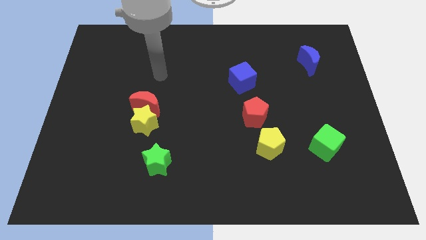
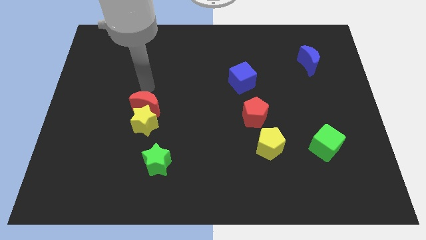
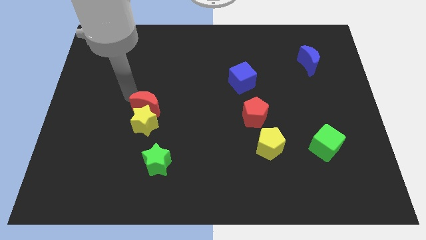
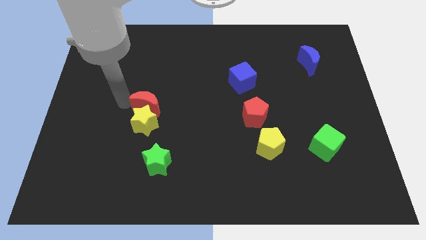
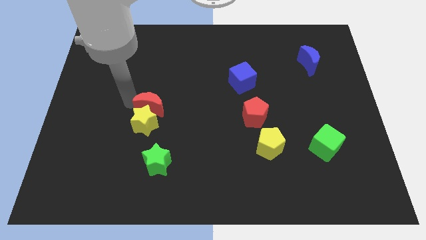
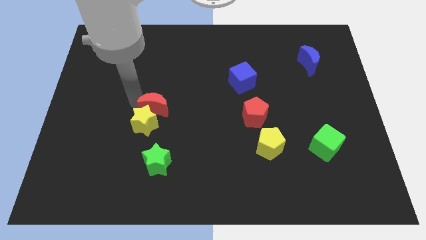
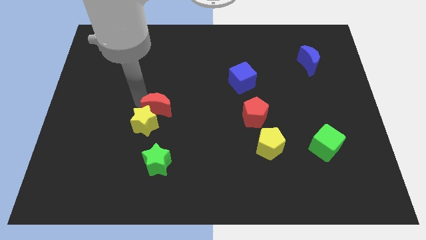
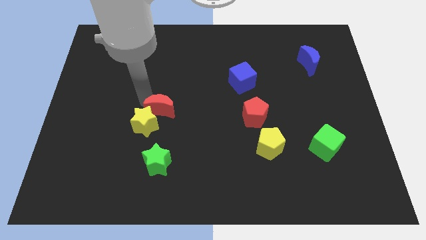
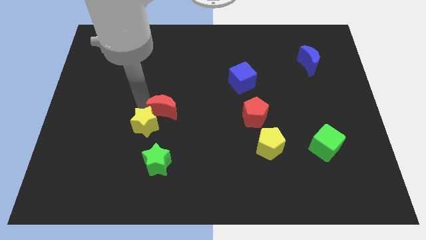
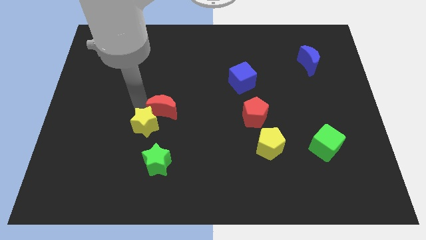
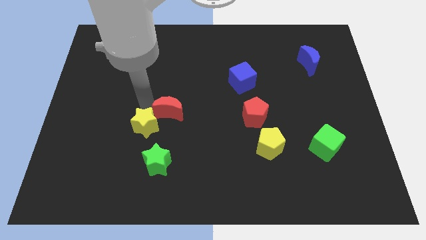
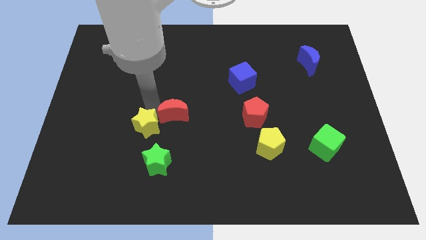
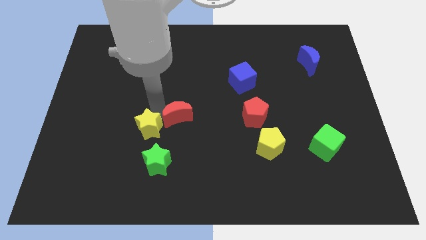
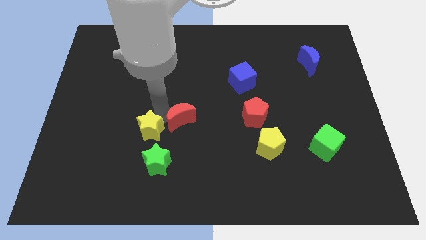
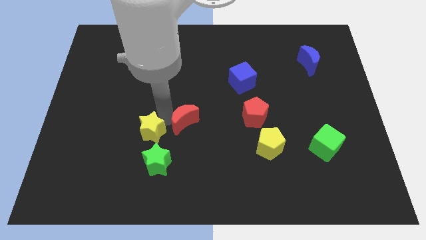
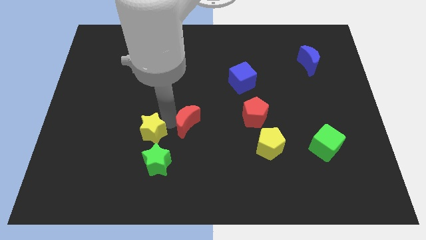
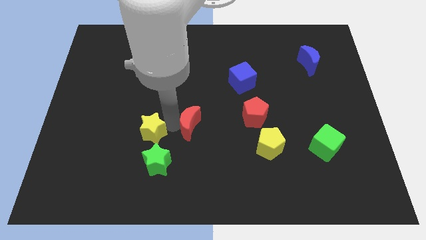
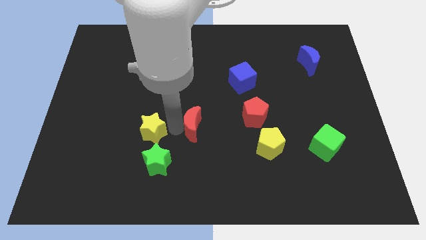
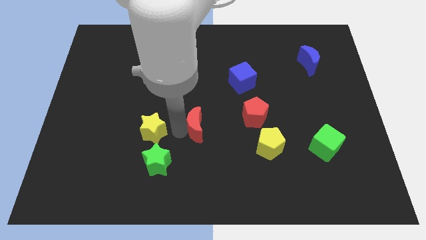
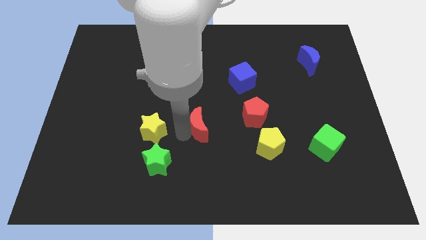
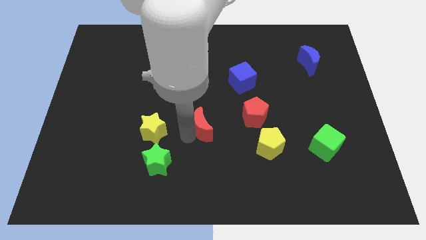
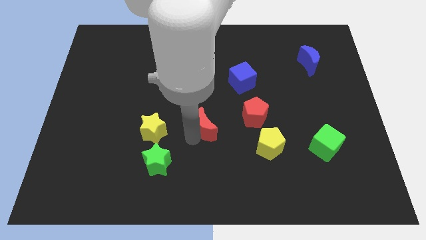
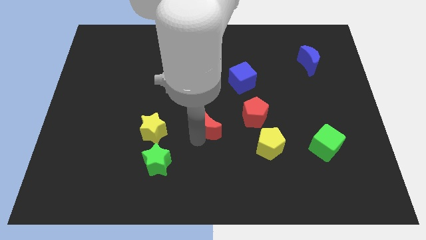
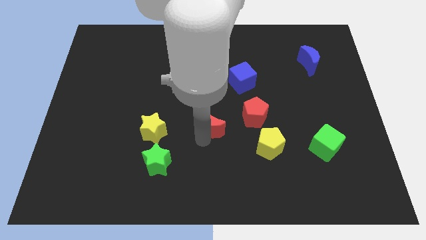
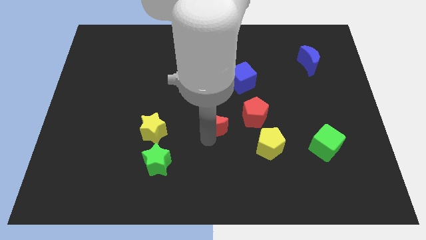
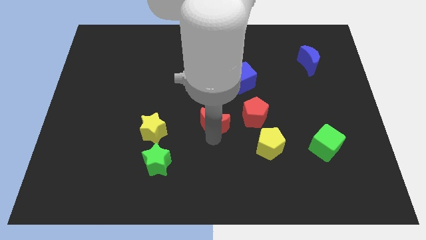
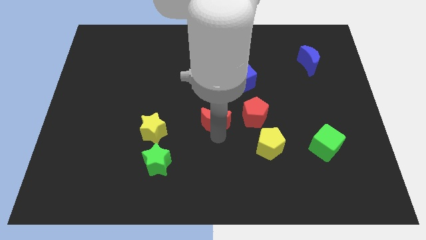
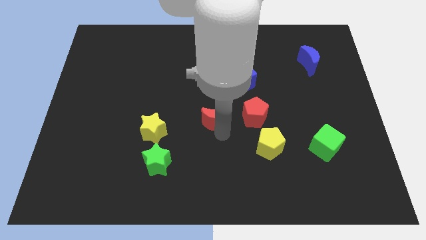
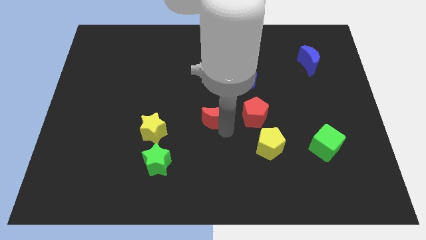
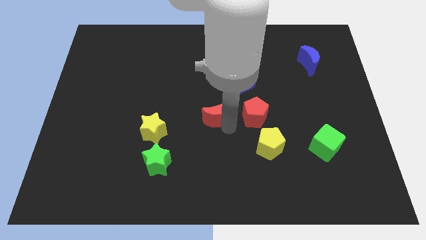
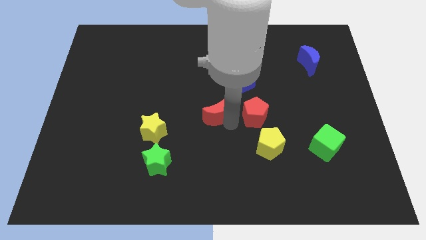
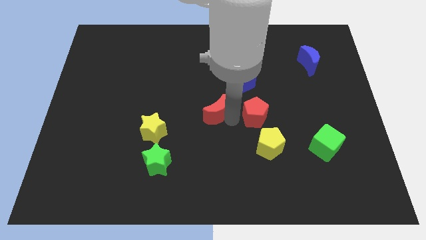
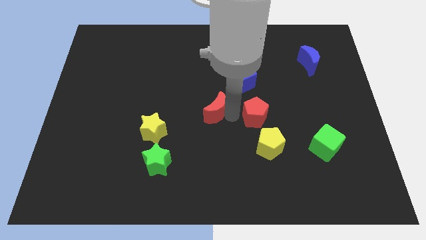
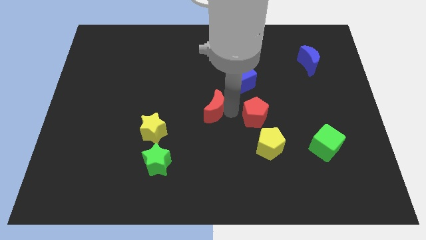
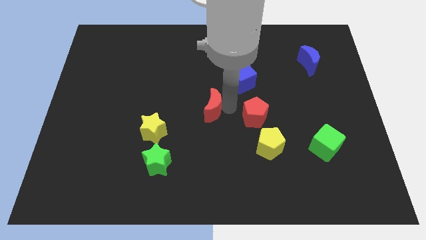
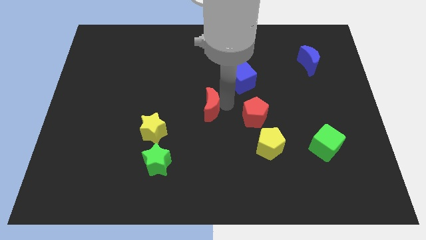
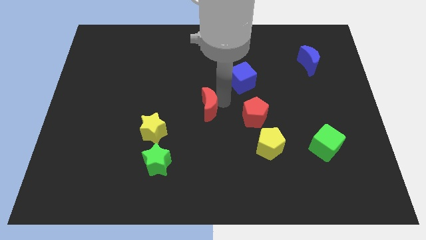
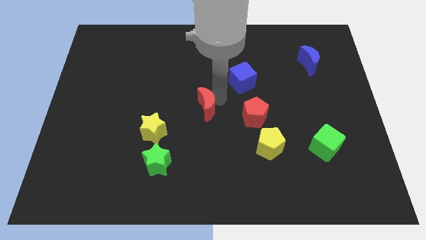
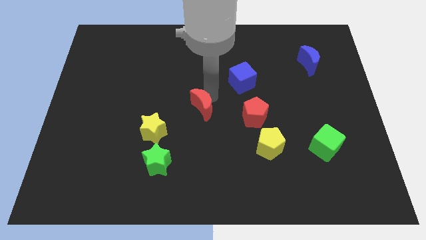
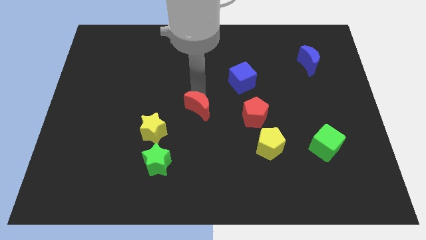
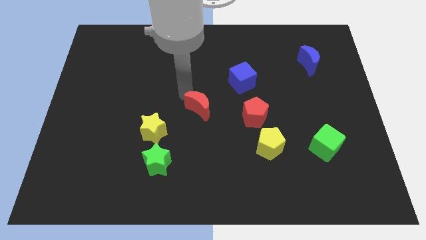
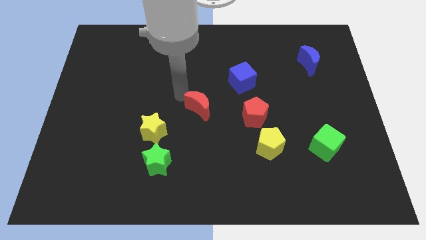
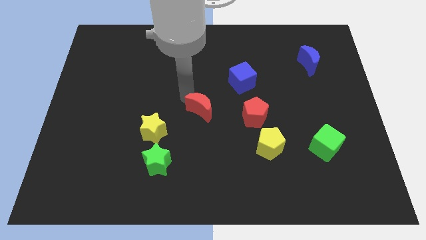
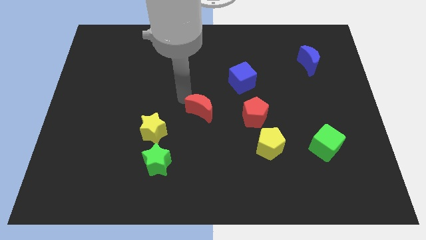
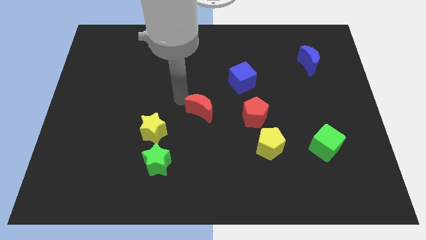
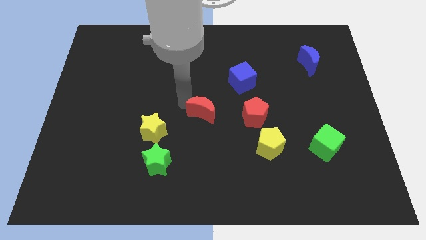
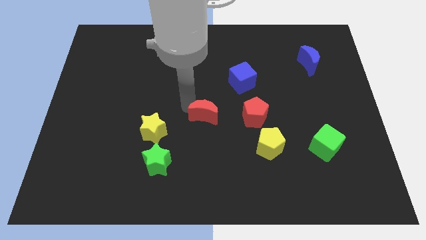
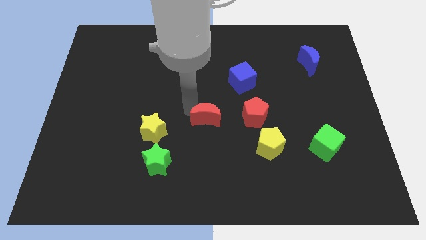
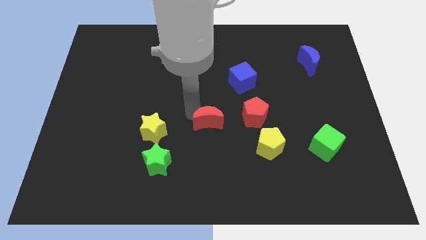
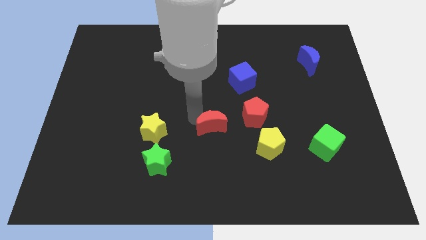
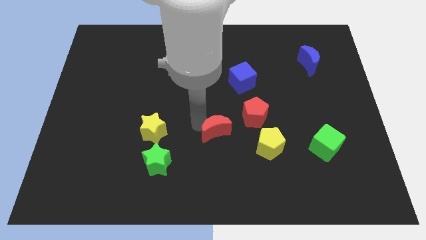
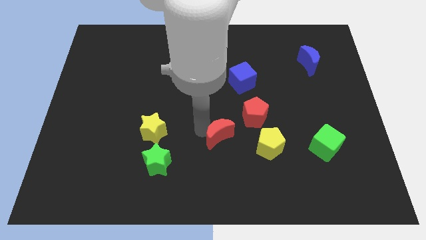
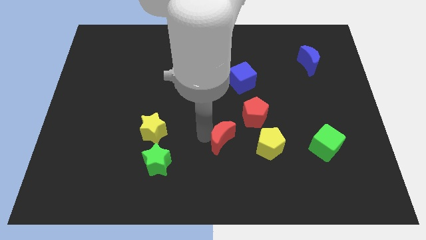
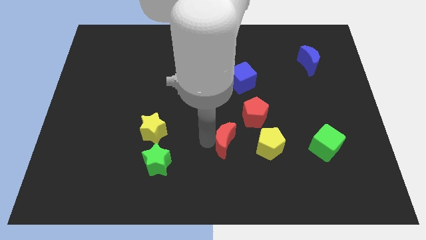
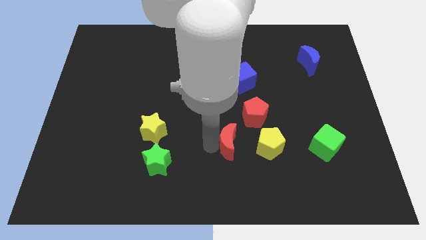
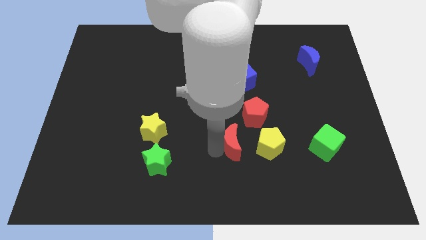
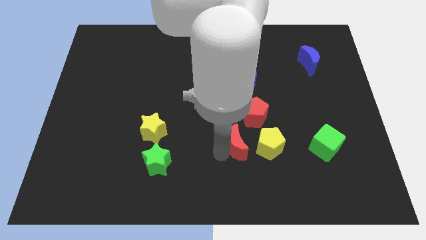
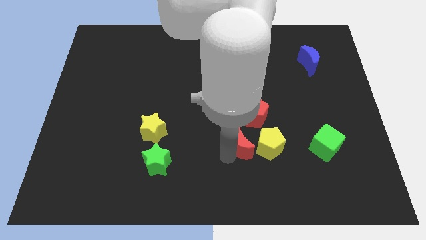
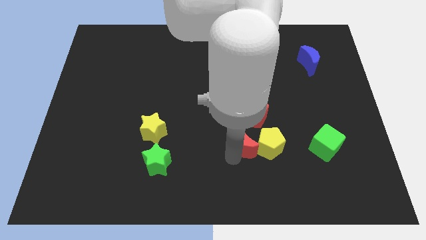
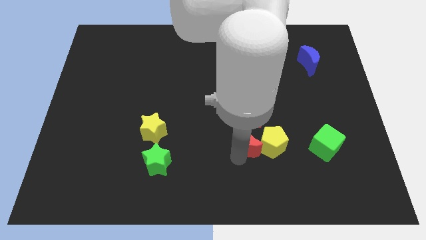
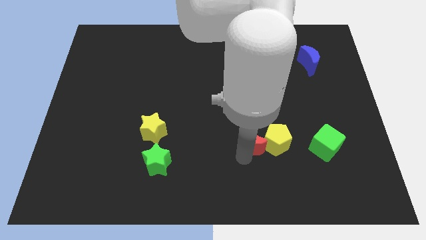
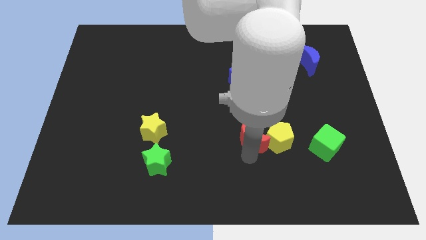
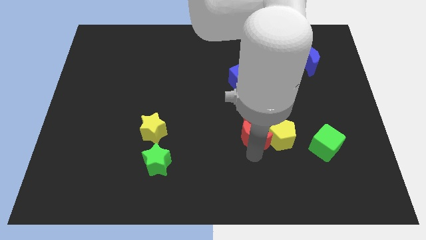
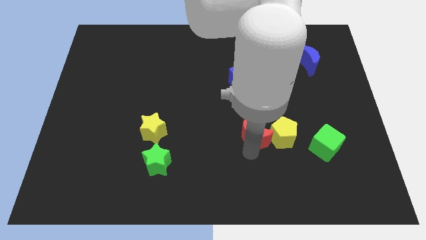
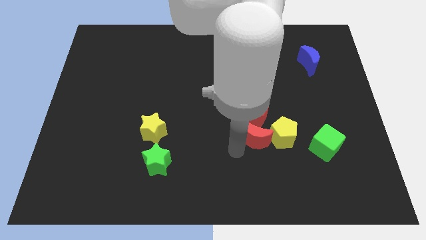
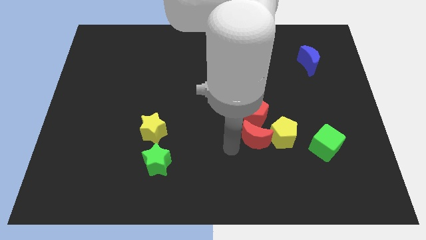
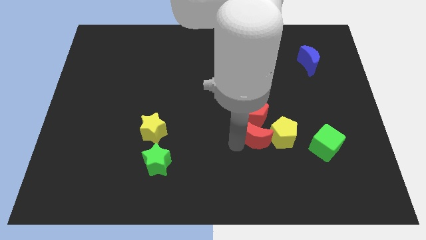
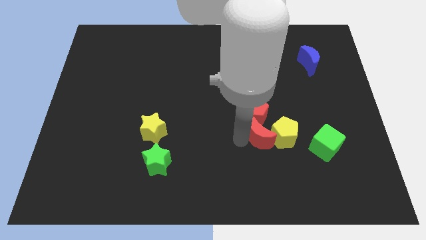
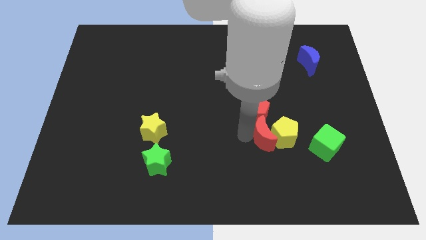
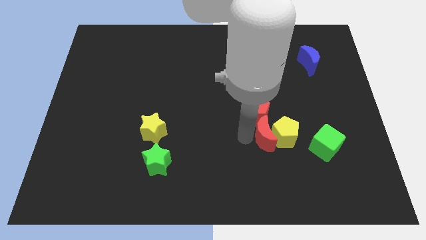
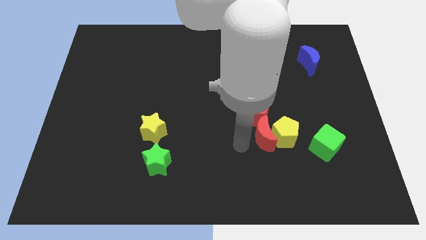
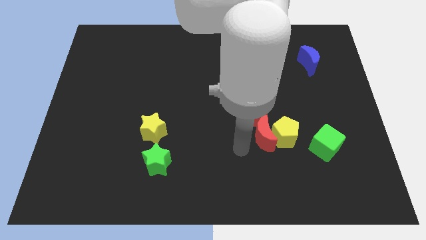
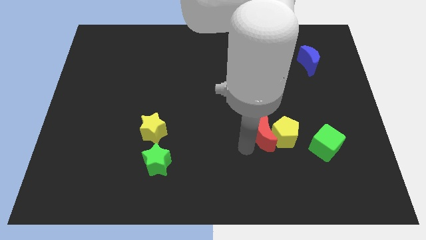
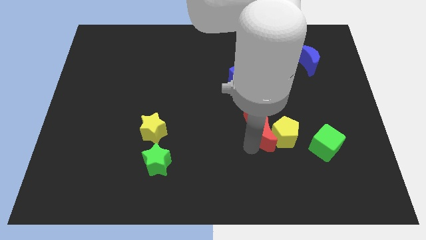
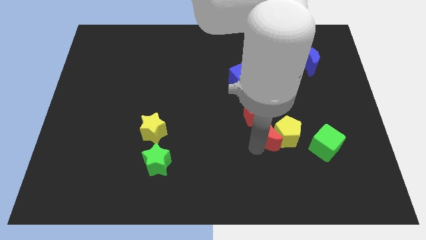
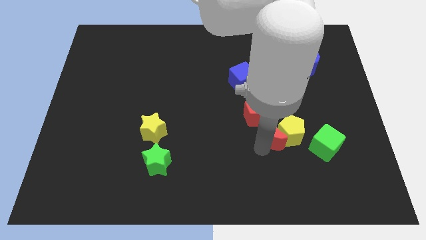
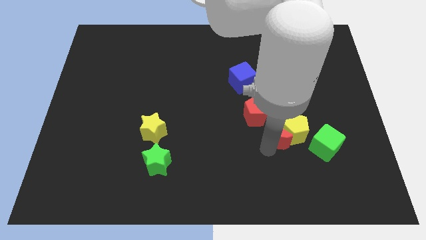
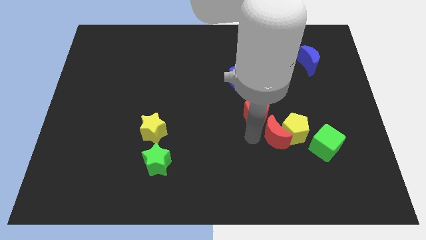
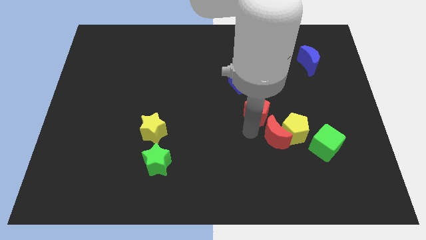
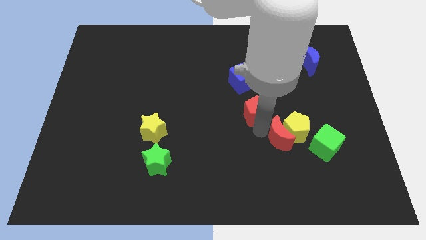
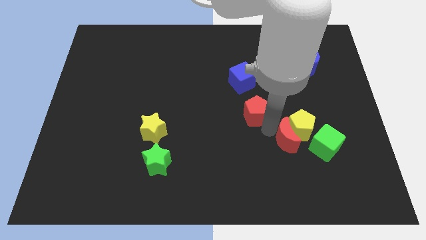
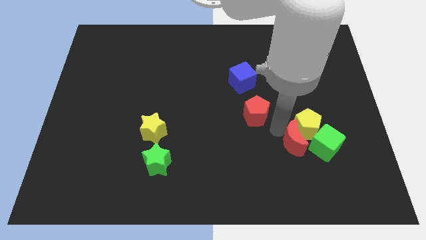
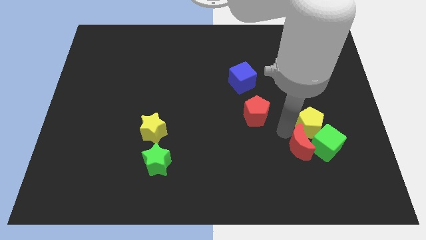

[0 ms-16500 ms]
put the red moon towards the green cube
